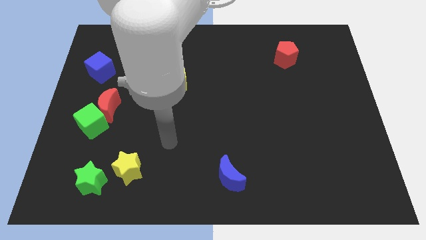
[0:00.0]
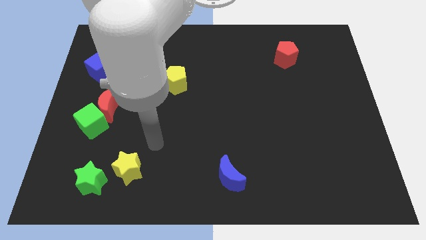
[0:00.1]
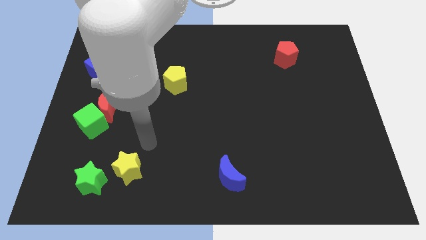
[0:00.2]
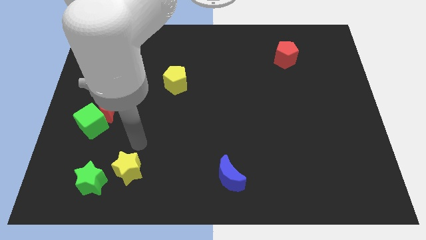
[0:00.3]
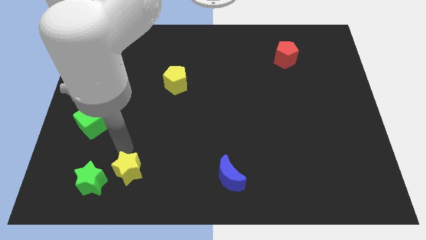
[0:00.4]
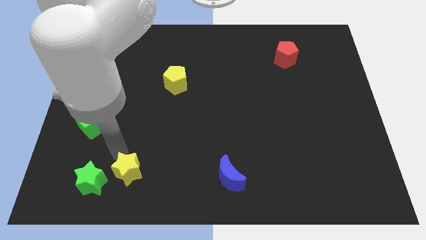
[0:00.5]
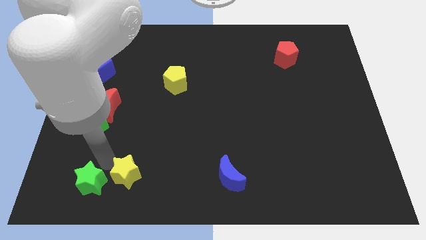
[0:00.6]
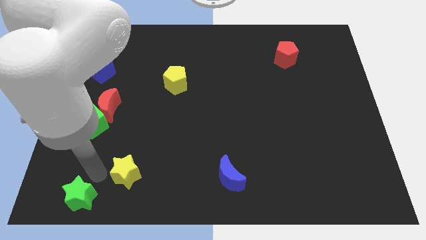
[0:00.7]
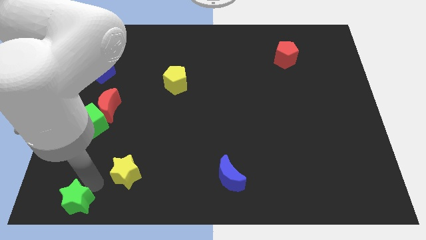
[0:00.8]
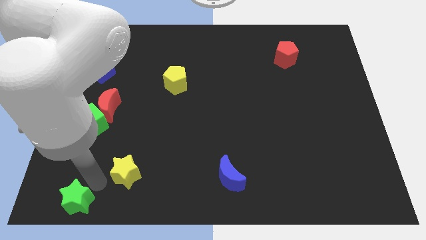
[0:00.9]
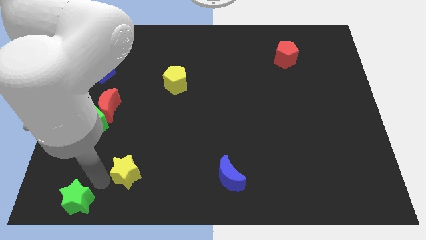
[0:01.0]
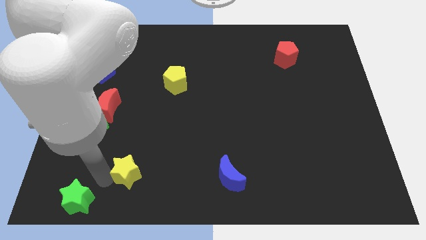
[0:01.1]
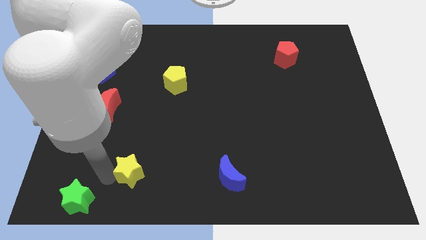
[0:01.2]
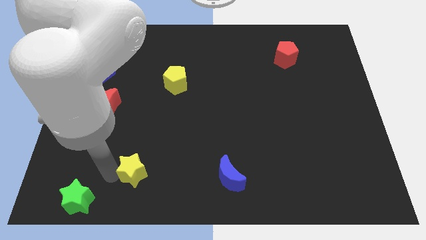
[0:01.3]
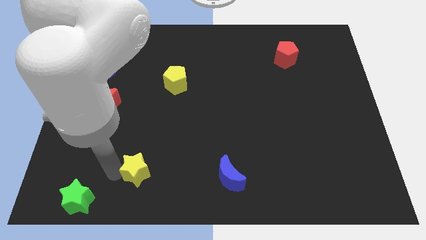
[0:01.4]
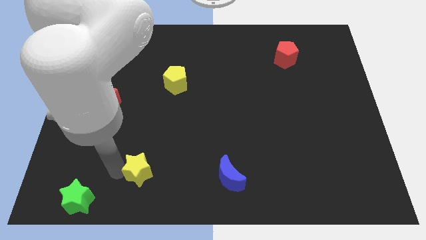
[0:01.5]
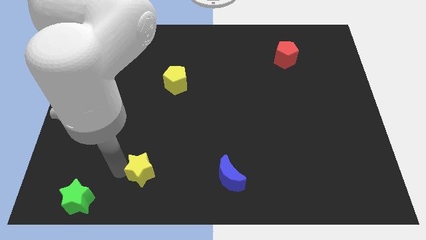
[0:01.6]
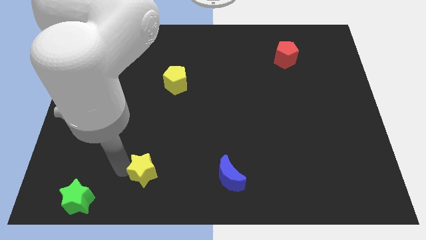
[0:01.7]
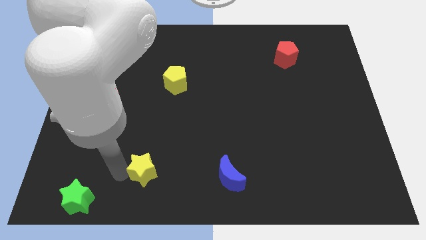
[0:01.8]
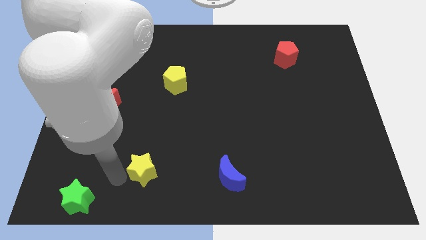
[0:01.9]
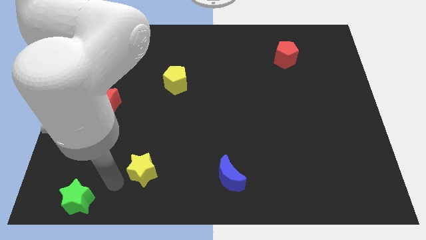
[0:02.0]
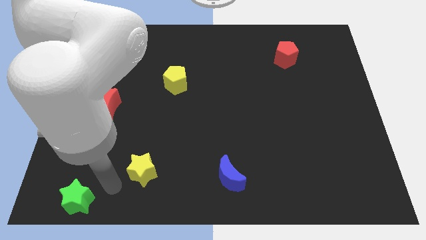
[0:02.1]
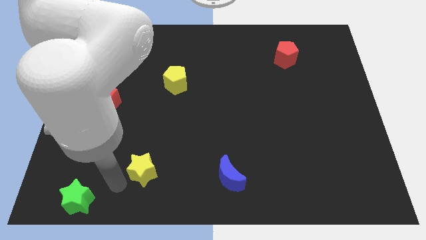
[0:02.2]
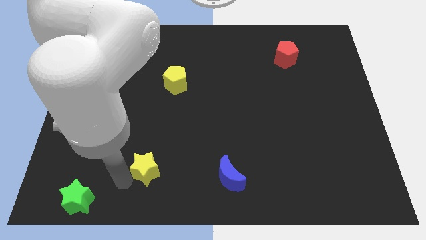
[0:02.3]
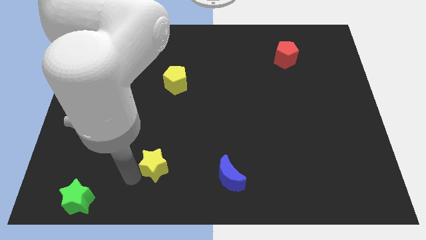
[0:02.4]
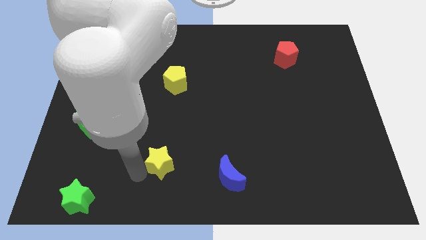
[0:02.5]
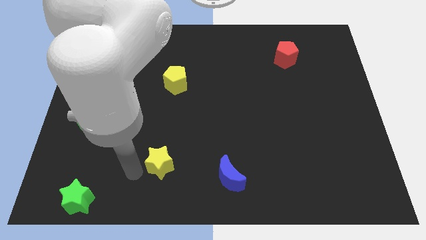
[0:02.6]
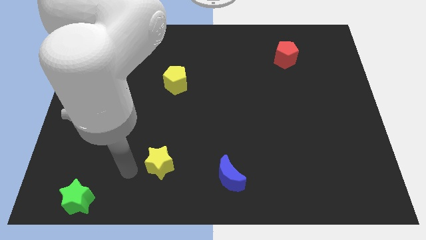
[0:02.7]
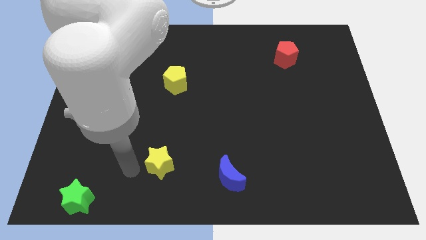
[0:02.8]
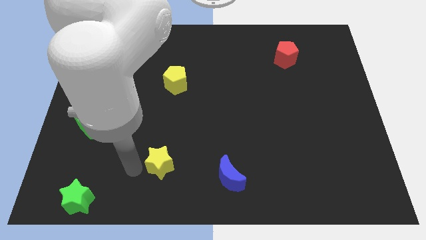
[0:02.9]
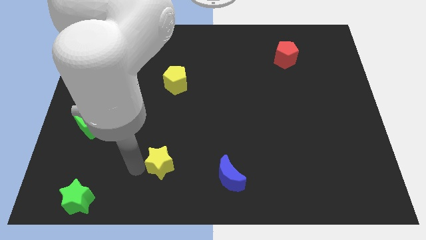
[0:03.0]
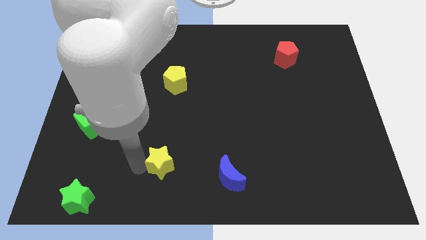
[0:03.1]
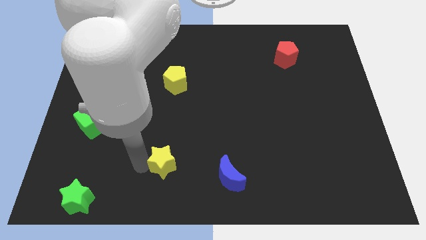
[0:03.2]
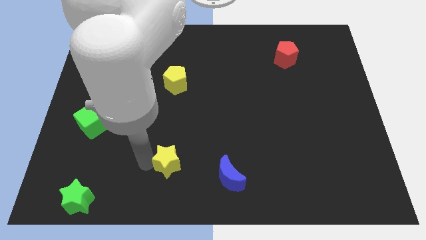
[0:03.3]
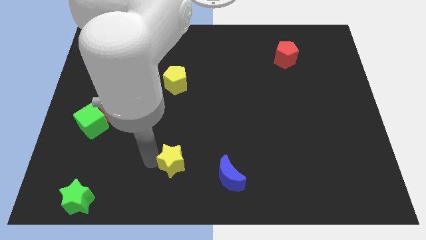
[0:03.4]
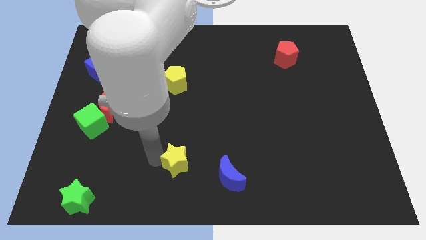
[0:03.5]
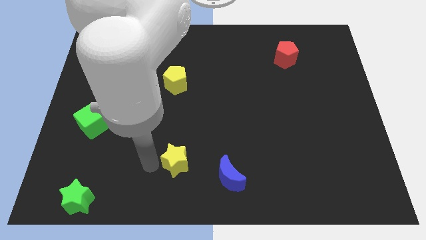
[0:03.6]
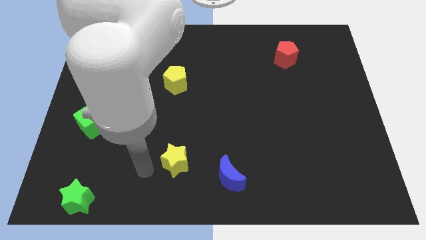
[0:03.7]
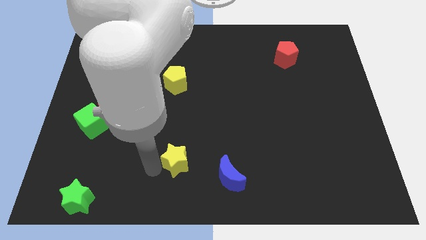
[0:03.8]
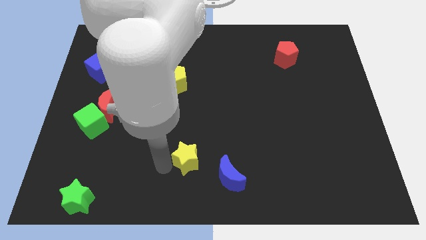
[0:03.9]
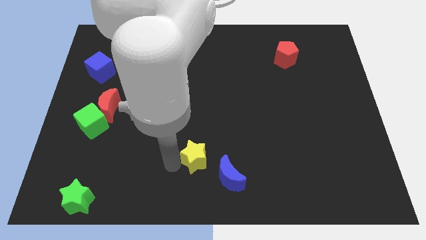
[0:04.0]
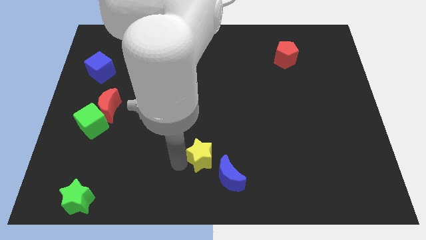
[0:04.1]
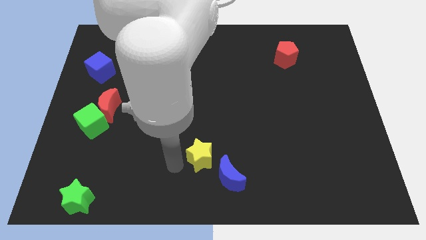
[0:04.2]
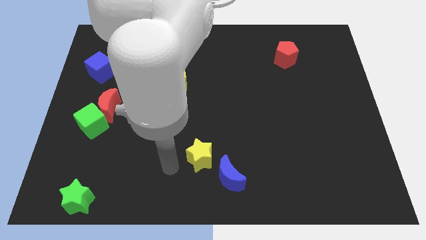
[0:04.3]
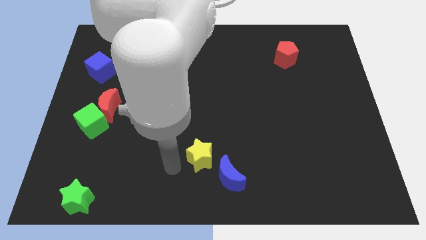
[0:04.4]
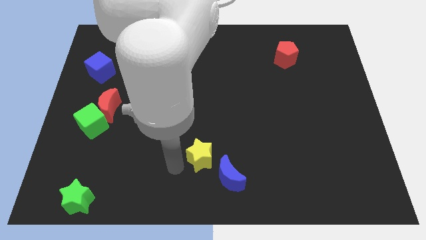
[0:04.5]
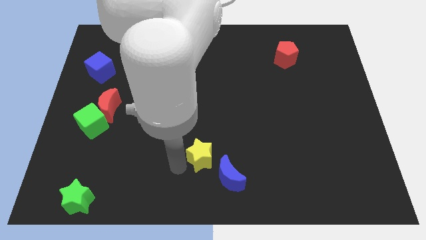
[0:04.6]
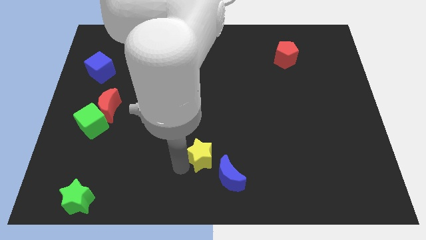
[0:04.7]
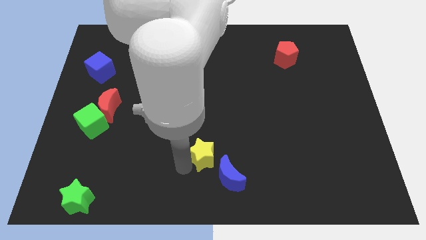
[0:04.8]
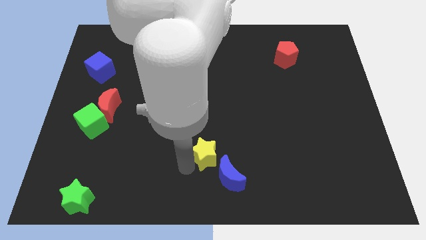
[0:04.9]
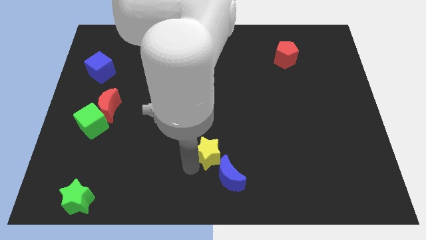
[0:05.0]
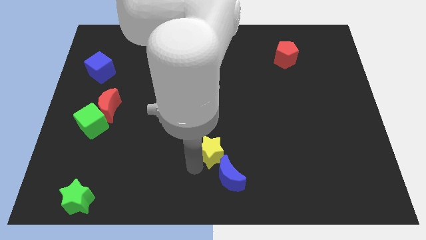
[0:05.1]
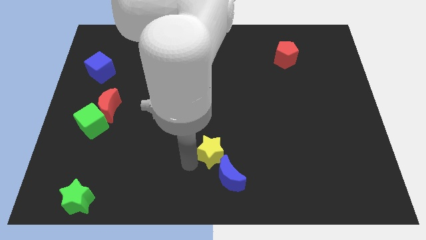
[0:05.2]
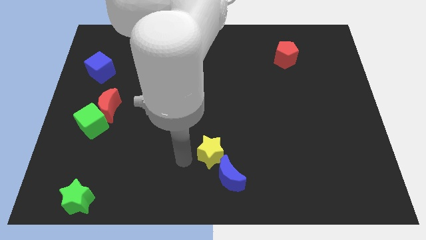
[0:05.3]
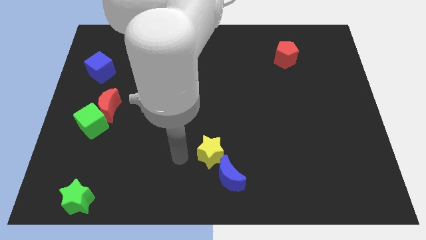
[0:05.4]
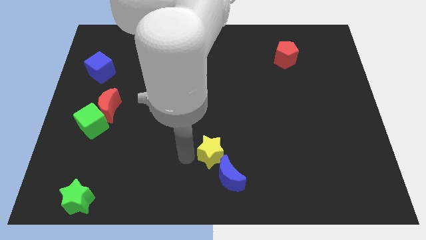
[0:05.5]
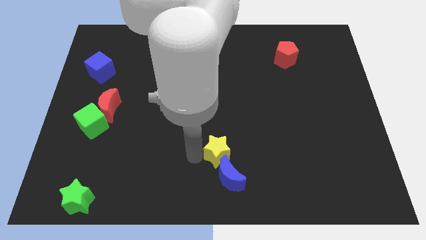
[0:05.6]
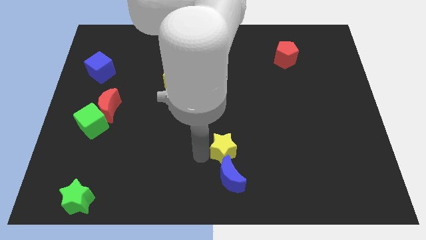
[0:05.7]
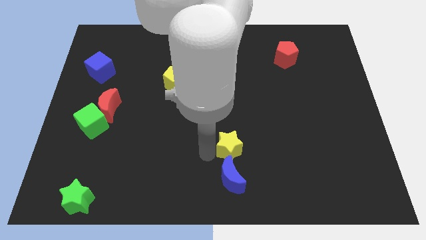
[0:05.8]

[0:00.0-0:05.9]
slide the yellow star to the right

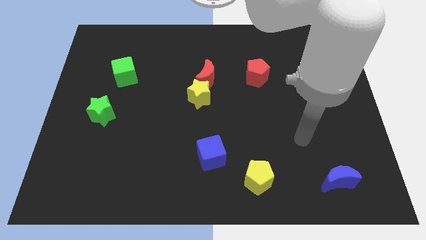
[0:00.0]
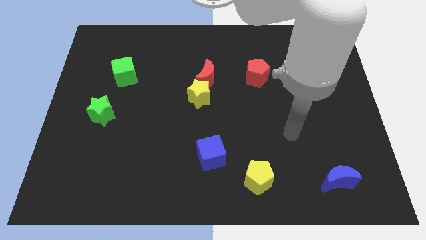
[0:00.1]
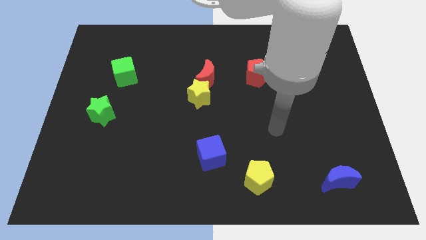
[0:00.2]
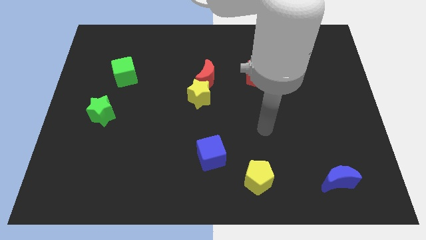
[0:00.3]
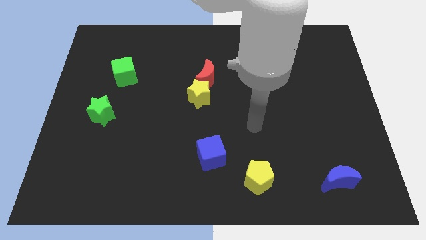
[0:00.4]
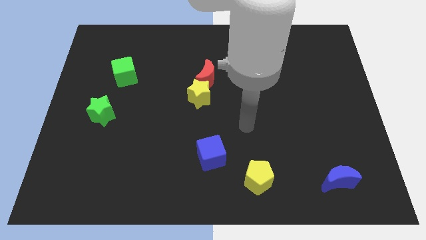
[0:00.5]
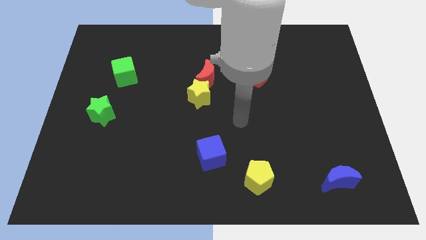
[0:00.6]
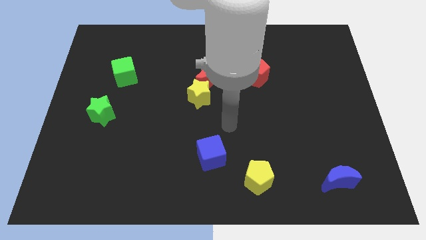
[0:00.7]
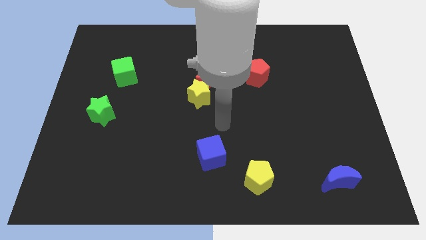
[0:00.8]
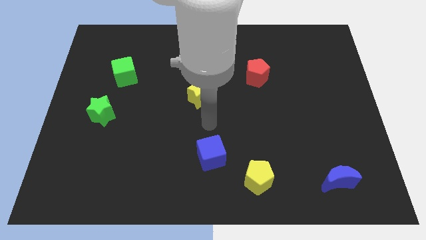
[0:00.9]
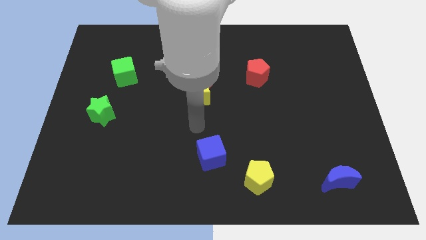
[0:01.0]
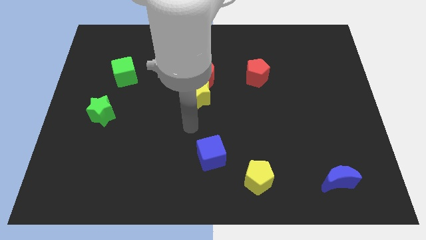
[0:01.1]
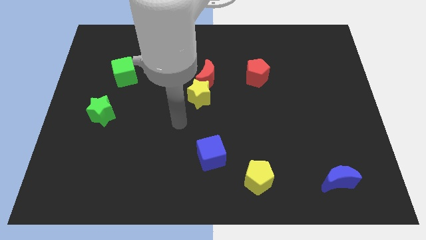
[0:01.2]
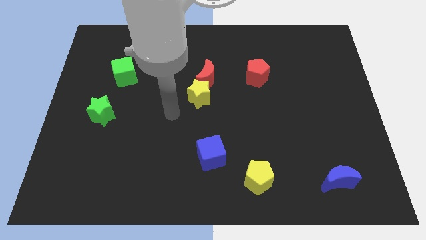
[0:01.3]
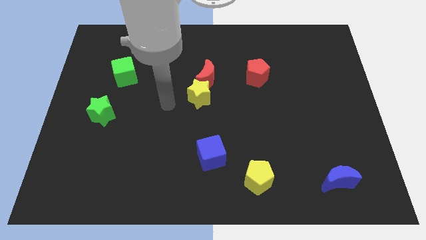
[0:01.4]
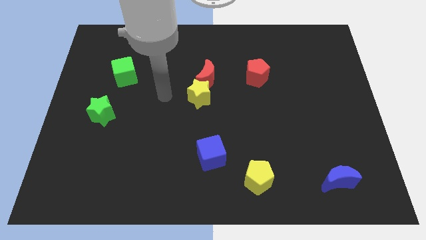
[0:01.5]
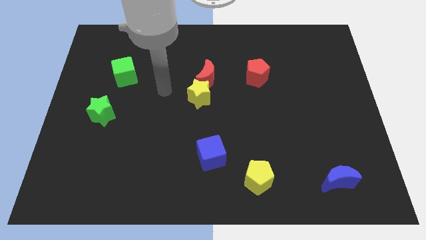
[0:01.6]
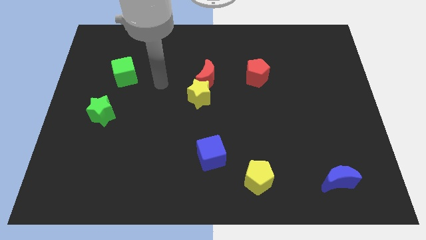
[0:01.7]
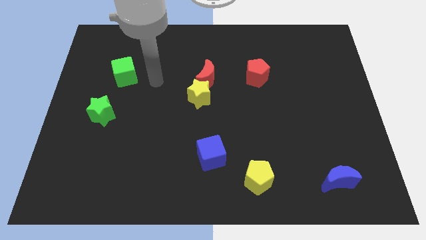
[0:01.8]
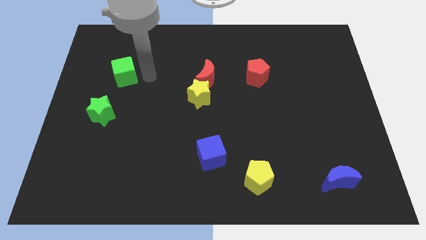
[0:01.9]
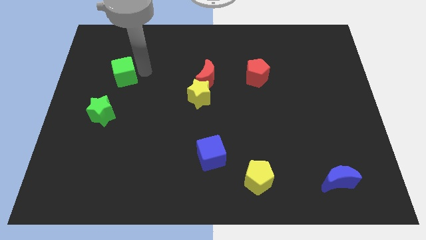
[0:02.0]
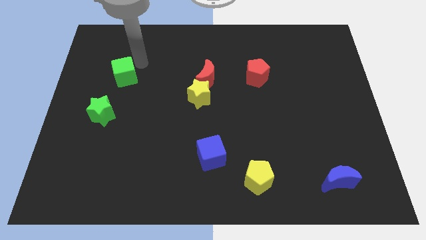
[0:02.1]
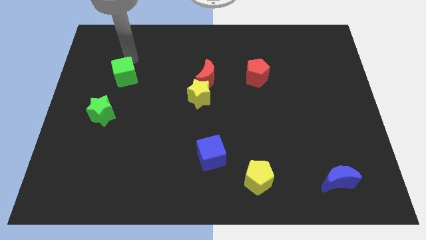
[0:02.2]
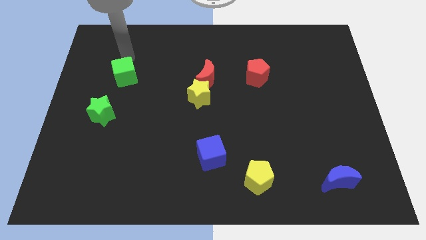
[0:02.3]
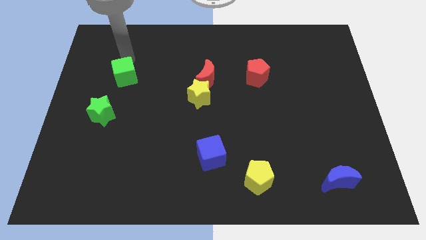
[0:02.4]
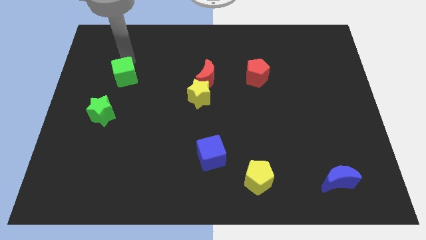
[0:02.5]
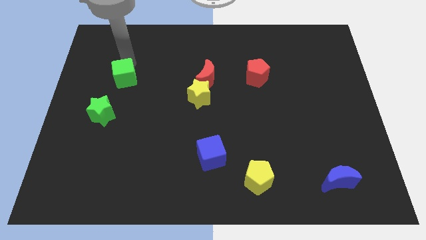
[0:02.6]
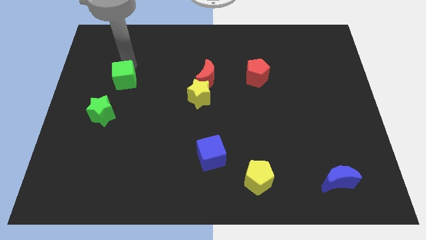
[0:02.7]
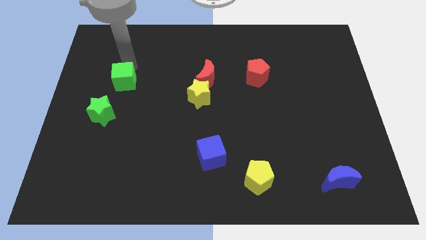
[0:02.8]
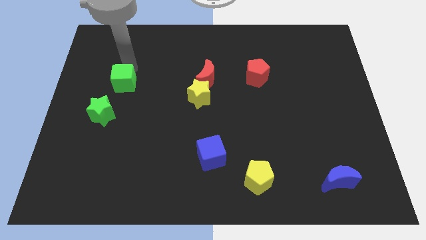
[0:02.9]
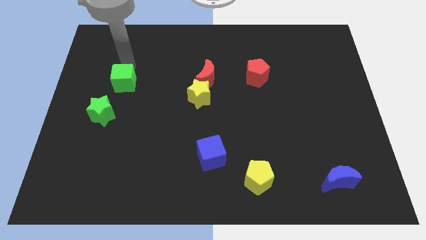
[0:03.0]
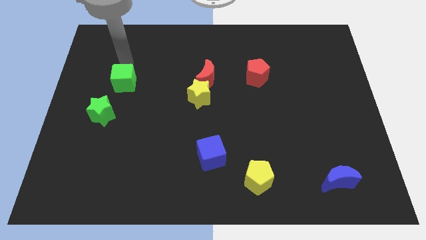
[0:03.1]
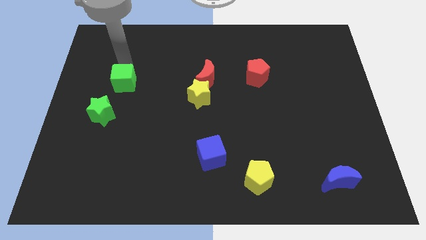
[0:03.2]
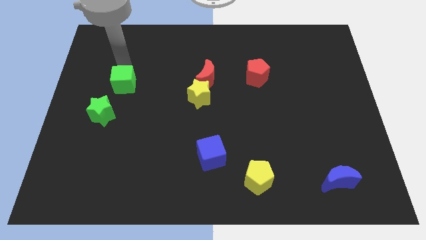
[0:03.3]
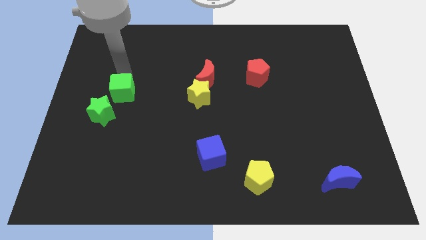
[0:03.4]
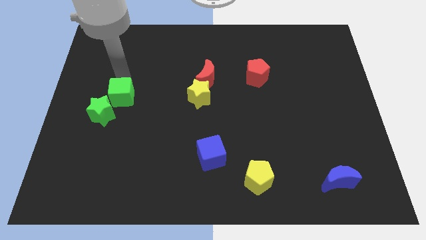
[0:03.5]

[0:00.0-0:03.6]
slightly slide the green cube downwards
